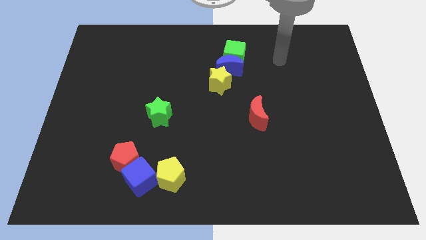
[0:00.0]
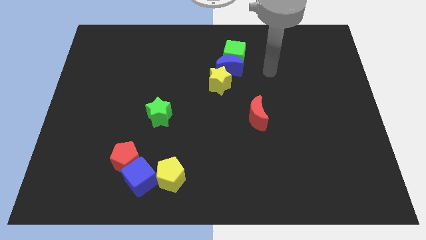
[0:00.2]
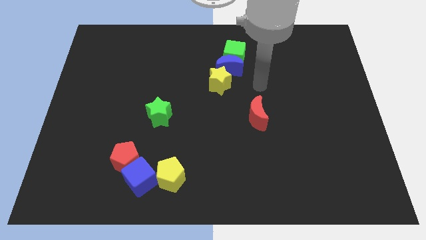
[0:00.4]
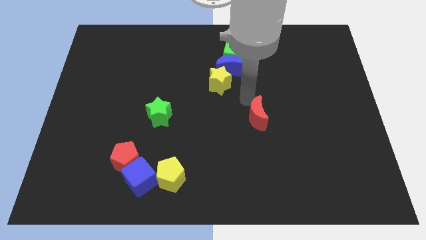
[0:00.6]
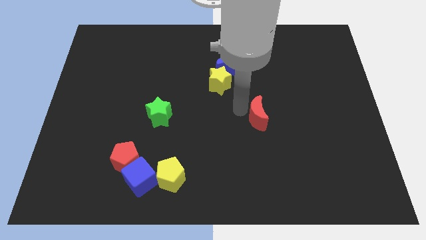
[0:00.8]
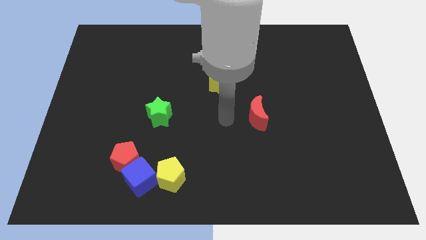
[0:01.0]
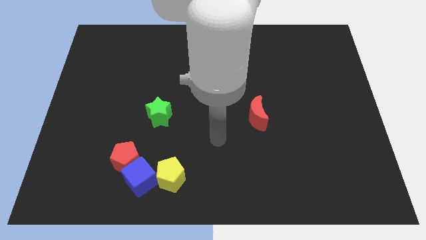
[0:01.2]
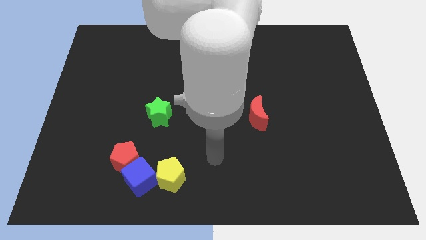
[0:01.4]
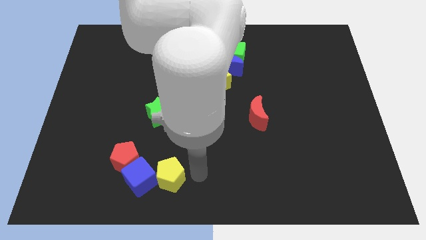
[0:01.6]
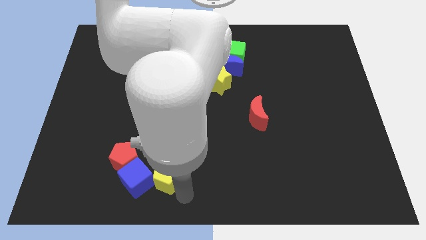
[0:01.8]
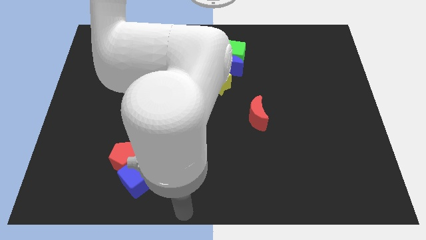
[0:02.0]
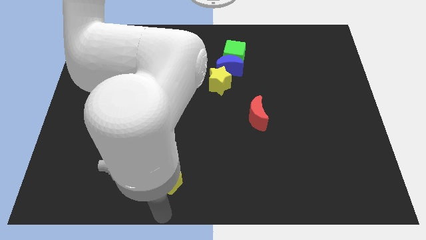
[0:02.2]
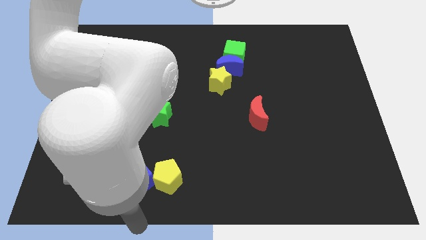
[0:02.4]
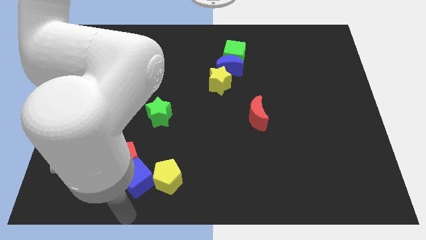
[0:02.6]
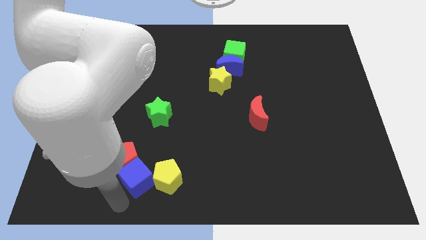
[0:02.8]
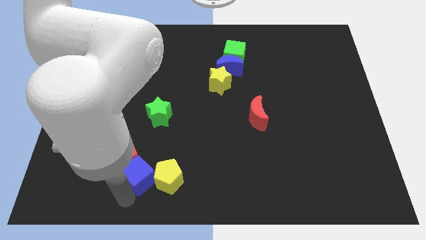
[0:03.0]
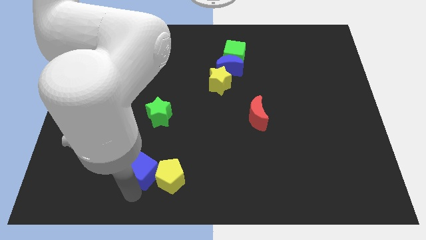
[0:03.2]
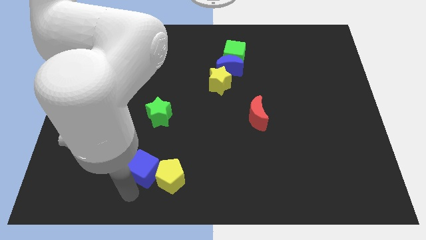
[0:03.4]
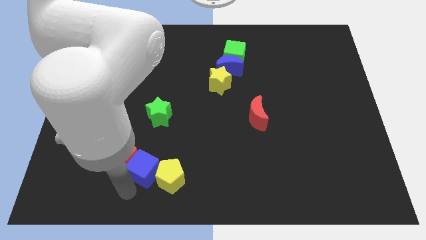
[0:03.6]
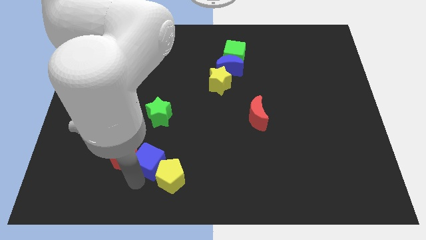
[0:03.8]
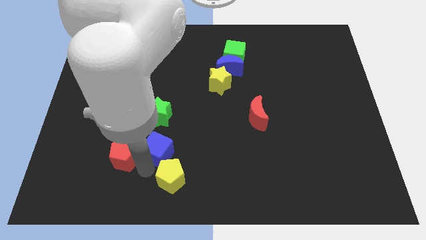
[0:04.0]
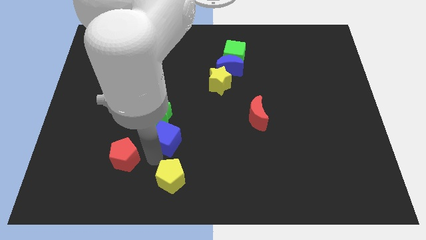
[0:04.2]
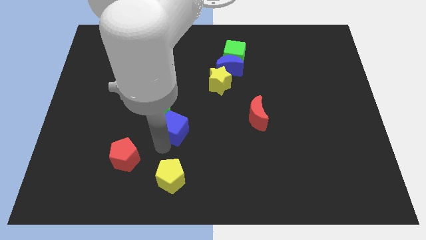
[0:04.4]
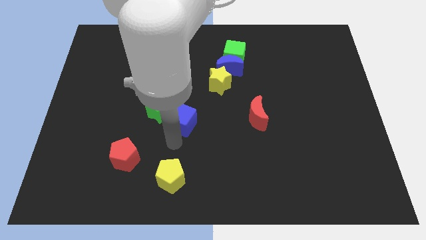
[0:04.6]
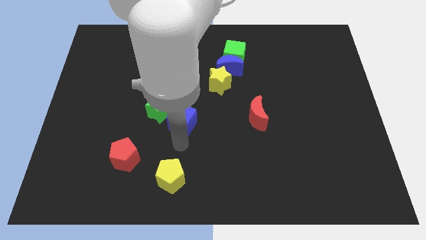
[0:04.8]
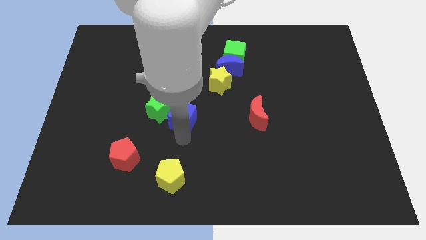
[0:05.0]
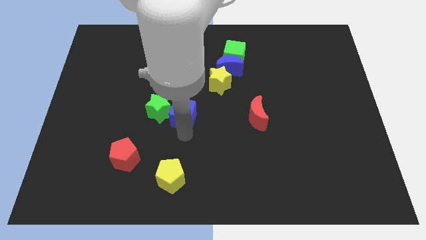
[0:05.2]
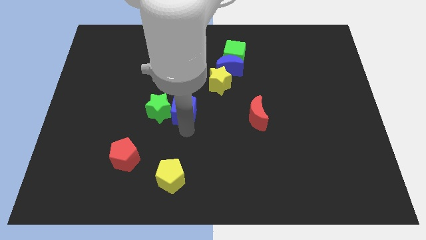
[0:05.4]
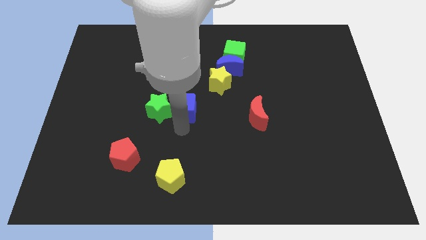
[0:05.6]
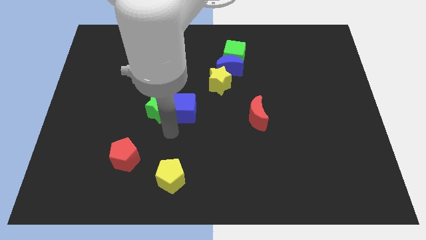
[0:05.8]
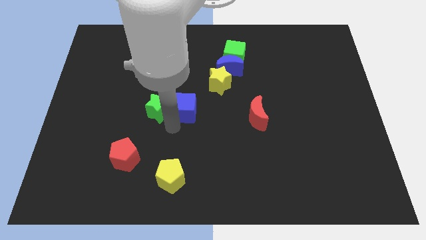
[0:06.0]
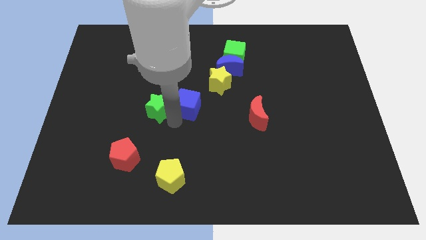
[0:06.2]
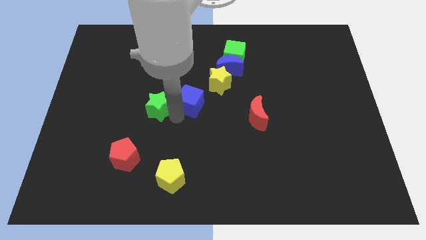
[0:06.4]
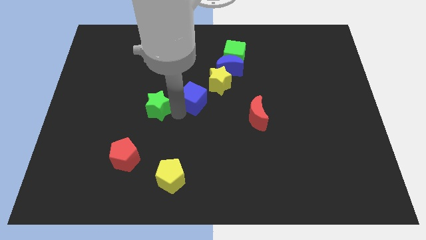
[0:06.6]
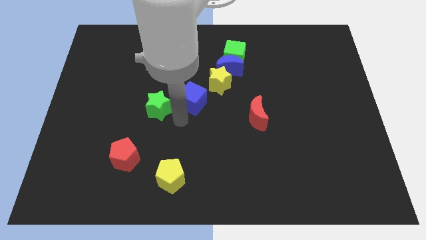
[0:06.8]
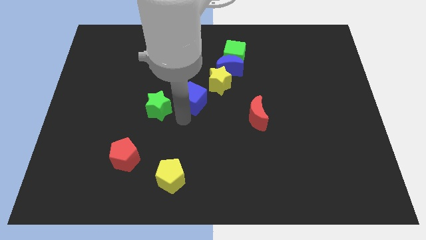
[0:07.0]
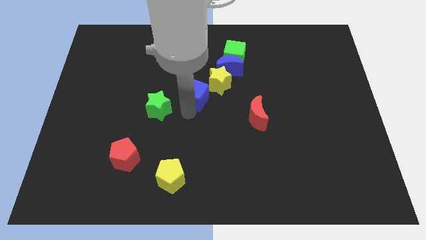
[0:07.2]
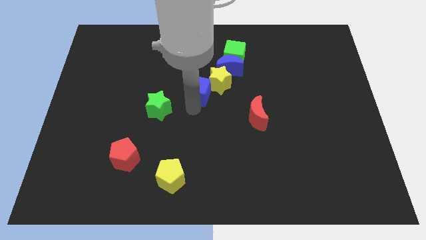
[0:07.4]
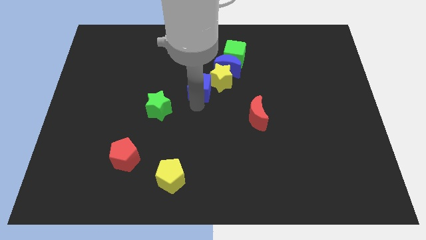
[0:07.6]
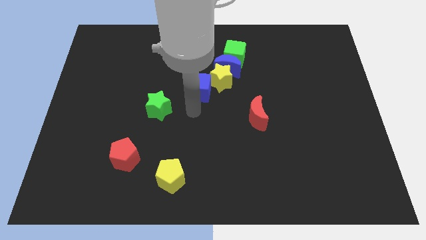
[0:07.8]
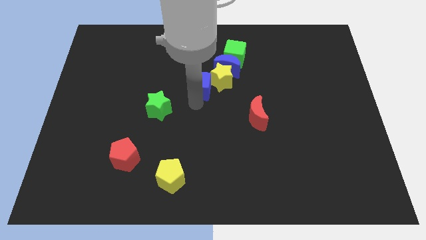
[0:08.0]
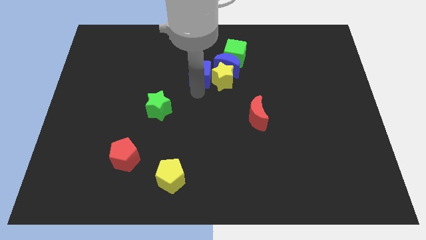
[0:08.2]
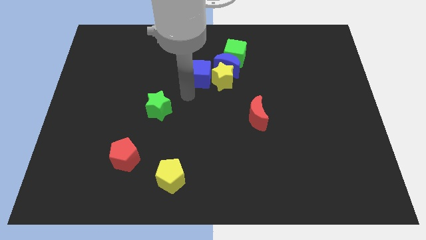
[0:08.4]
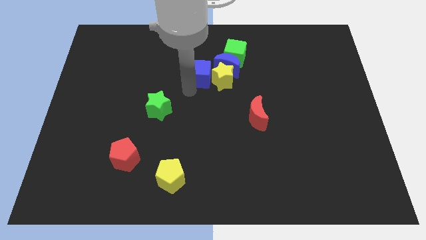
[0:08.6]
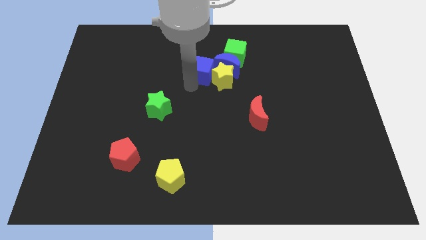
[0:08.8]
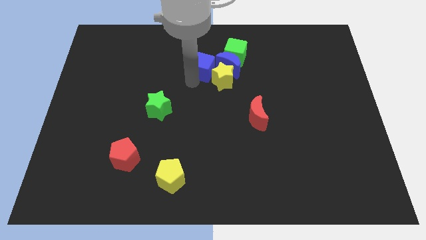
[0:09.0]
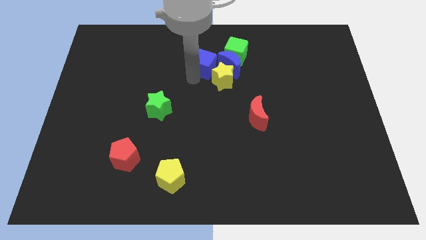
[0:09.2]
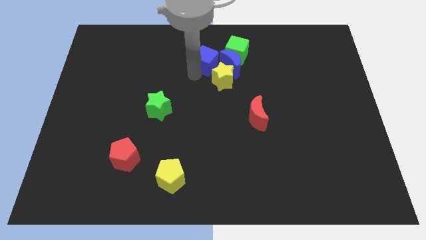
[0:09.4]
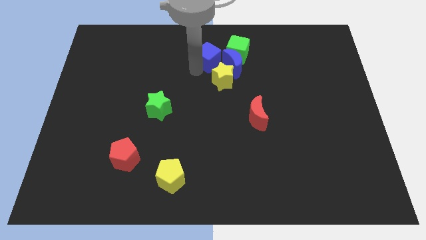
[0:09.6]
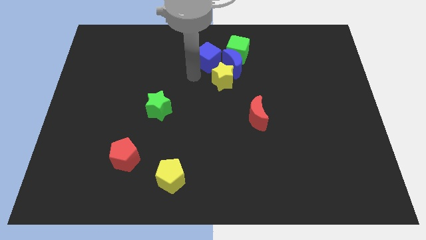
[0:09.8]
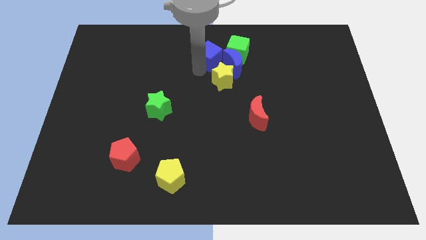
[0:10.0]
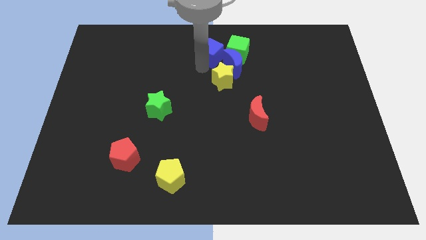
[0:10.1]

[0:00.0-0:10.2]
move the blue cube to the towards your base

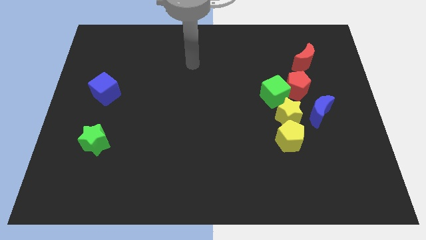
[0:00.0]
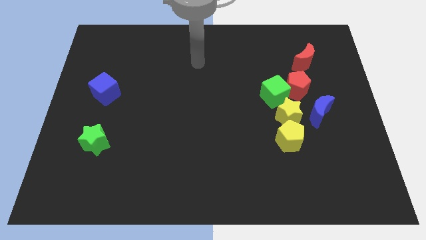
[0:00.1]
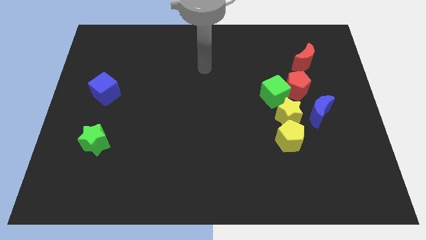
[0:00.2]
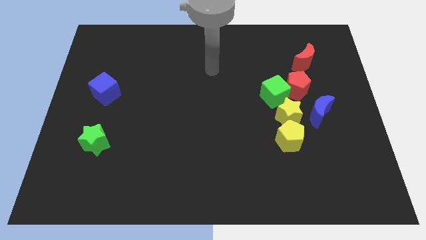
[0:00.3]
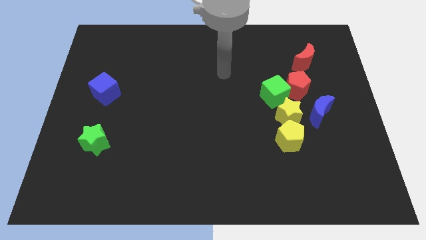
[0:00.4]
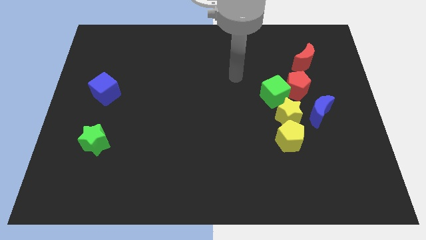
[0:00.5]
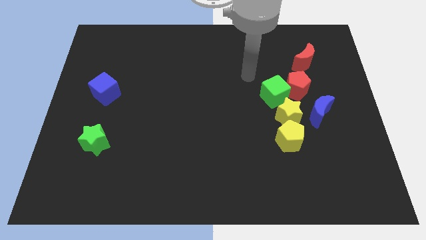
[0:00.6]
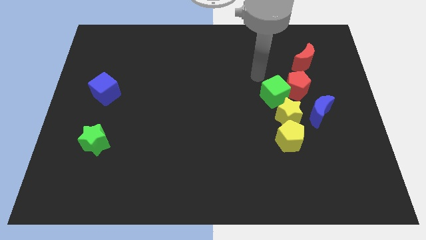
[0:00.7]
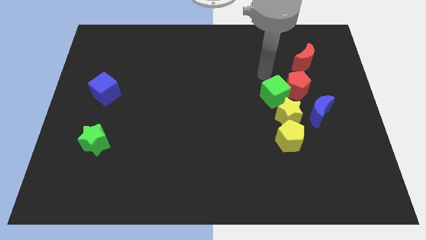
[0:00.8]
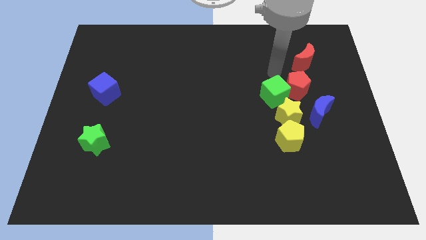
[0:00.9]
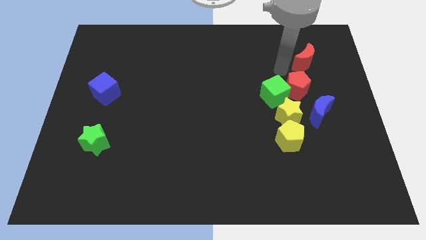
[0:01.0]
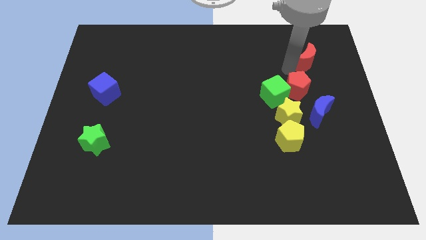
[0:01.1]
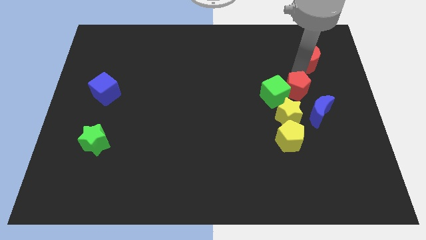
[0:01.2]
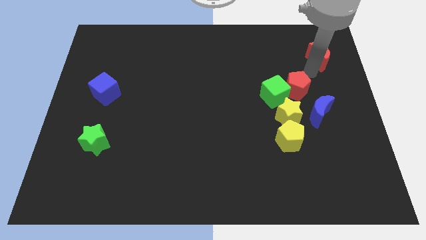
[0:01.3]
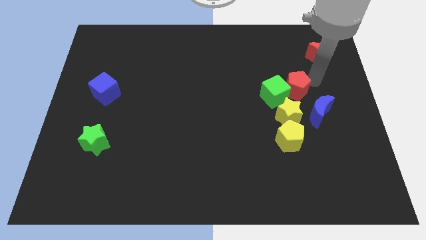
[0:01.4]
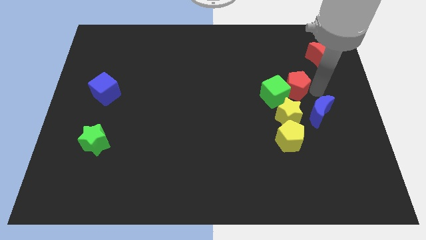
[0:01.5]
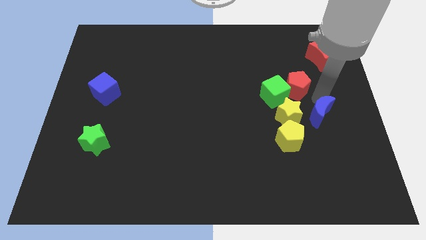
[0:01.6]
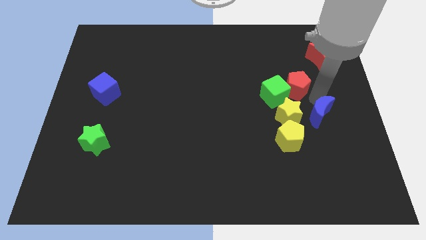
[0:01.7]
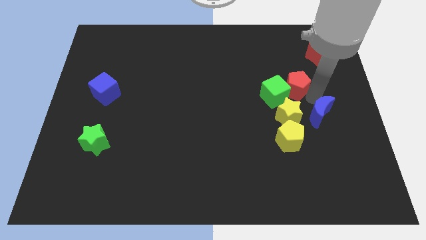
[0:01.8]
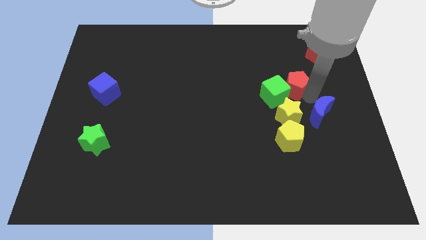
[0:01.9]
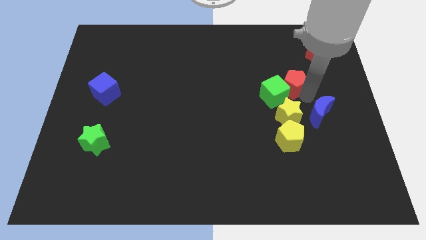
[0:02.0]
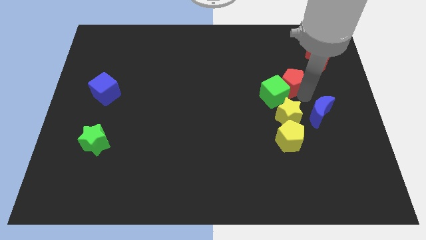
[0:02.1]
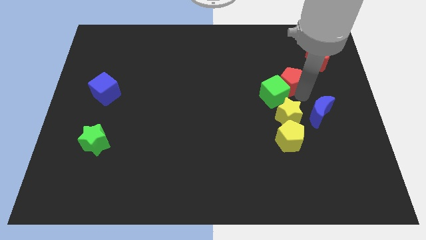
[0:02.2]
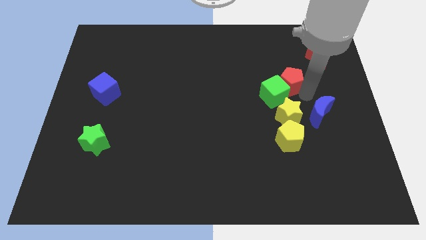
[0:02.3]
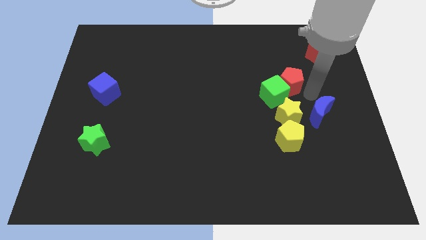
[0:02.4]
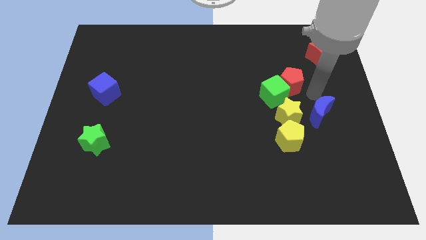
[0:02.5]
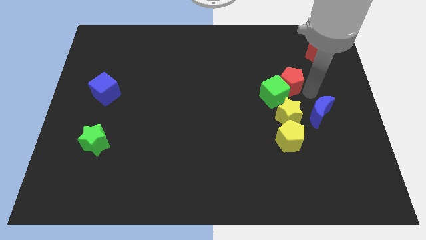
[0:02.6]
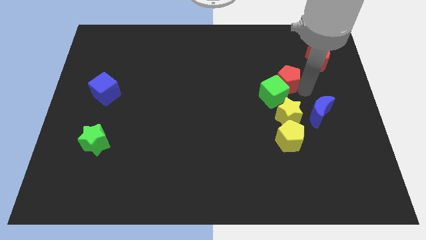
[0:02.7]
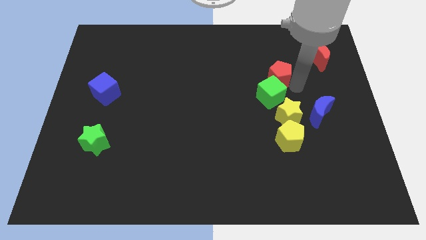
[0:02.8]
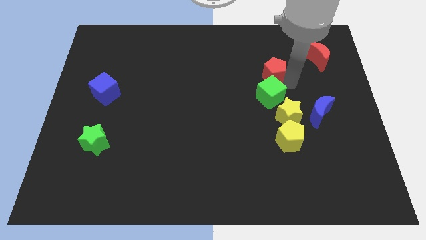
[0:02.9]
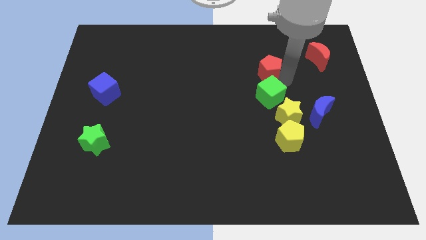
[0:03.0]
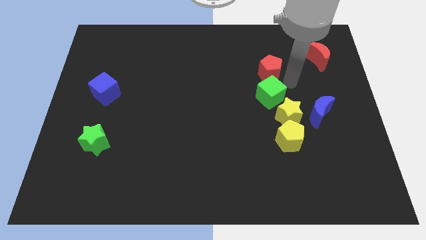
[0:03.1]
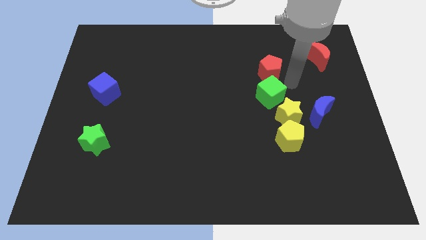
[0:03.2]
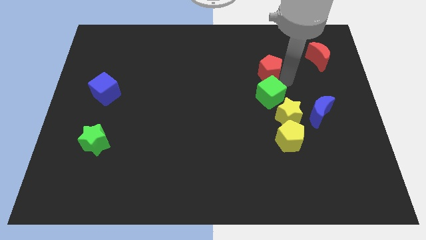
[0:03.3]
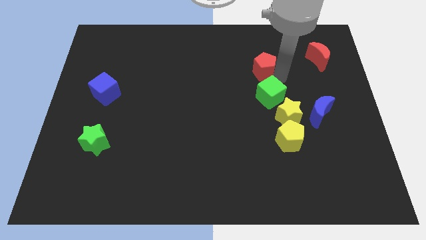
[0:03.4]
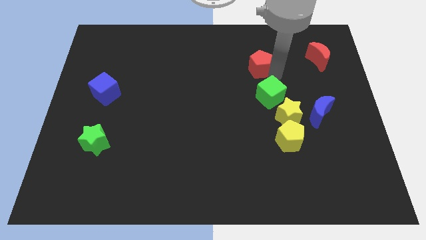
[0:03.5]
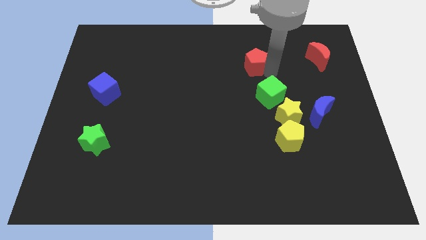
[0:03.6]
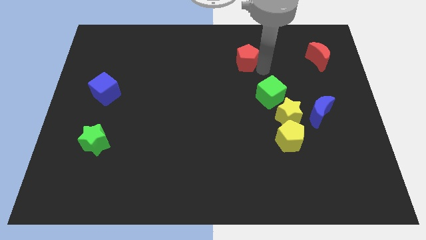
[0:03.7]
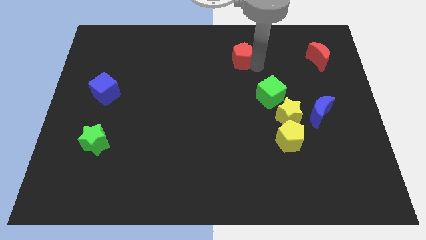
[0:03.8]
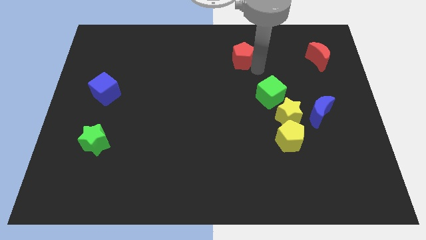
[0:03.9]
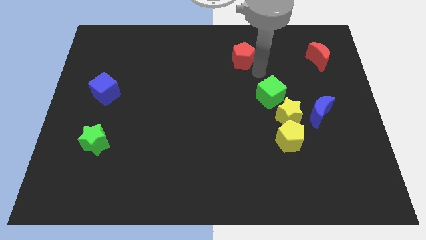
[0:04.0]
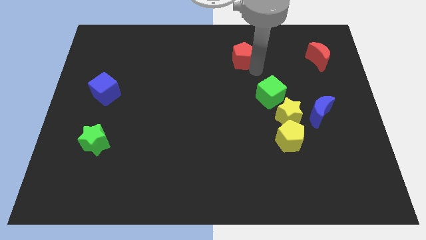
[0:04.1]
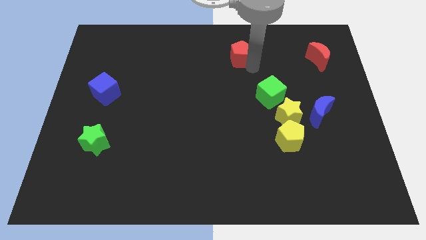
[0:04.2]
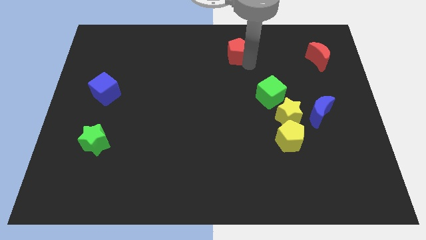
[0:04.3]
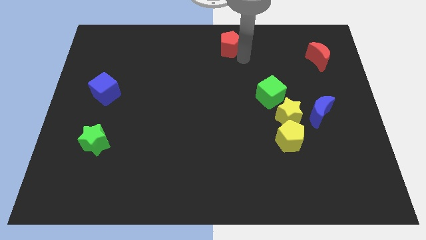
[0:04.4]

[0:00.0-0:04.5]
slide the red pentagon to the top
